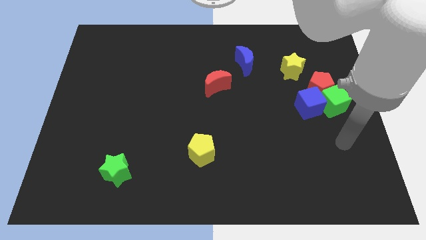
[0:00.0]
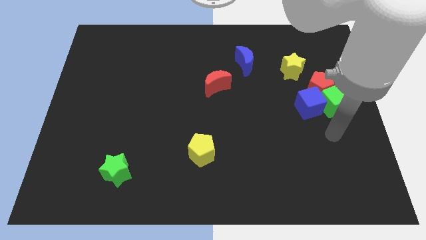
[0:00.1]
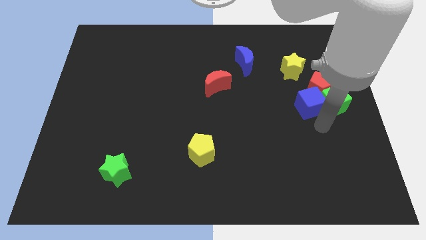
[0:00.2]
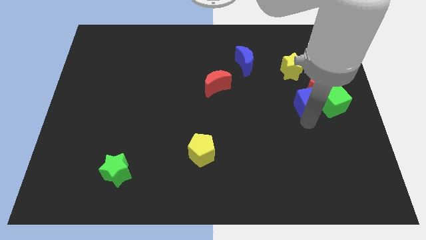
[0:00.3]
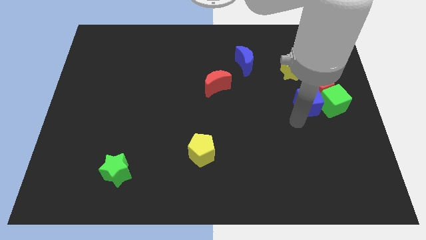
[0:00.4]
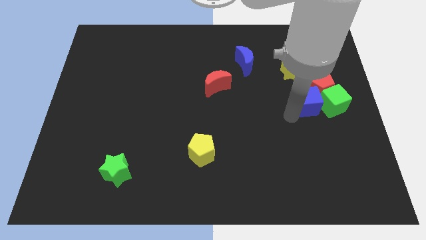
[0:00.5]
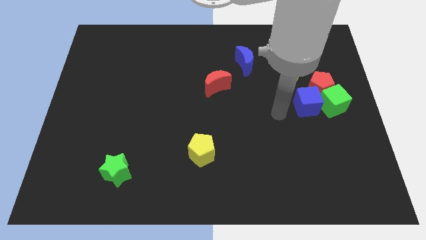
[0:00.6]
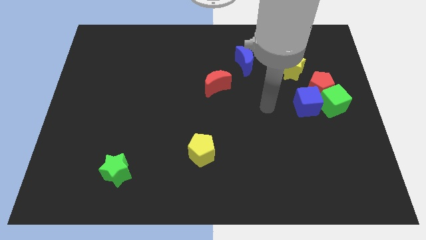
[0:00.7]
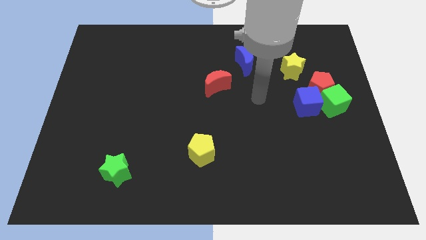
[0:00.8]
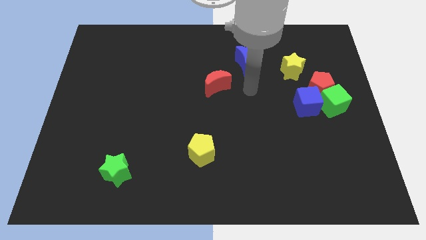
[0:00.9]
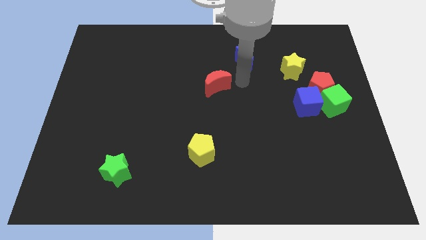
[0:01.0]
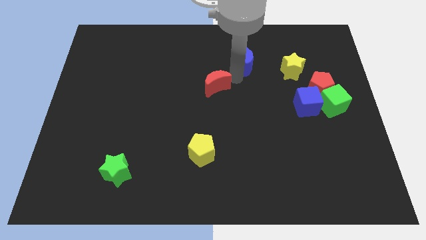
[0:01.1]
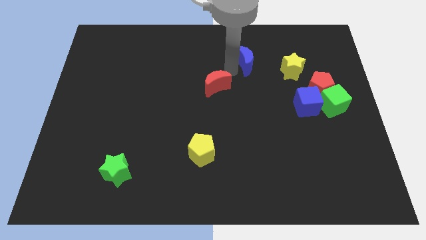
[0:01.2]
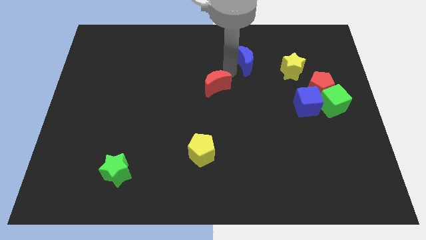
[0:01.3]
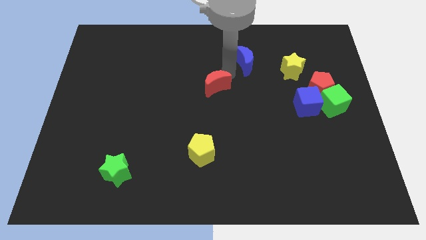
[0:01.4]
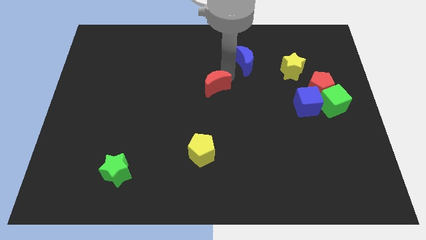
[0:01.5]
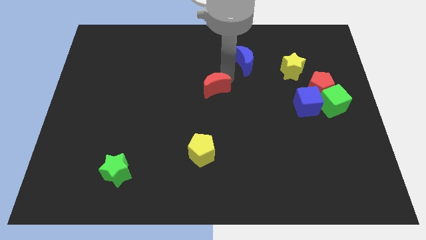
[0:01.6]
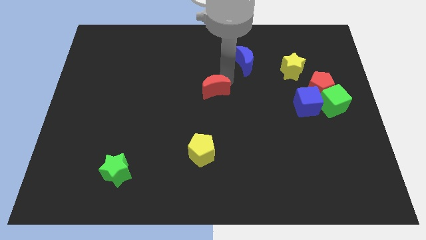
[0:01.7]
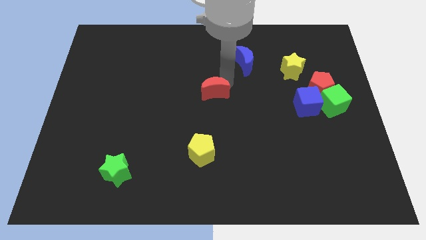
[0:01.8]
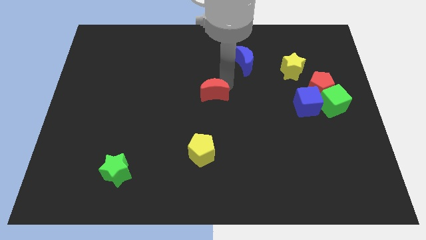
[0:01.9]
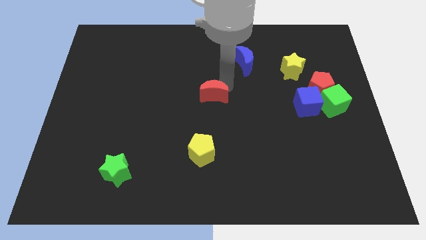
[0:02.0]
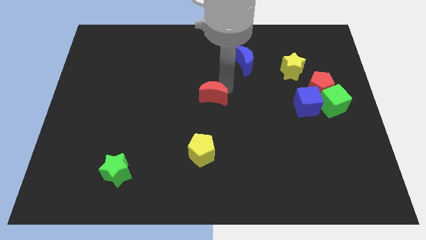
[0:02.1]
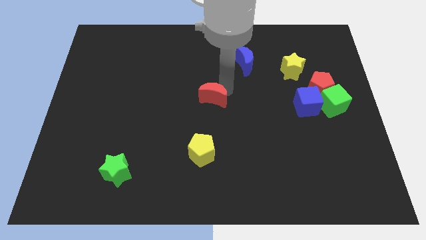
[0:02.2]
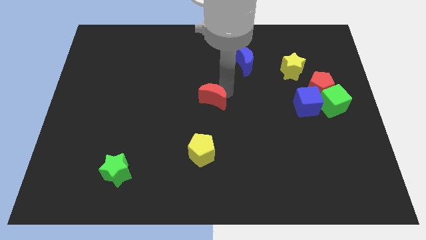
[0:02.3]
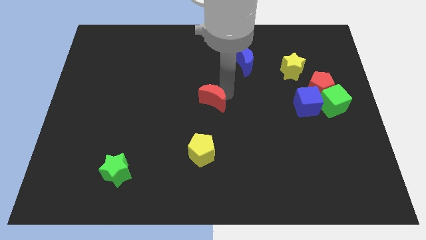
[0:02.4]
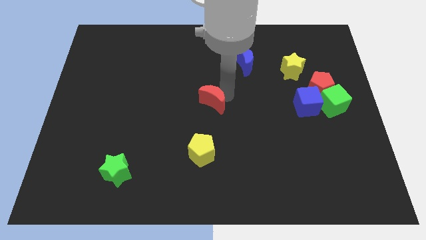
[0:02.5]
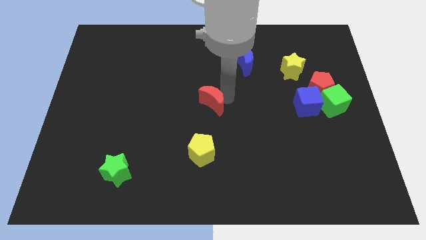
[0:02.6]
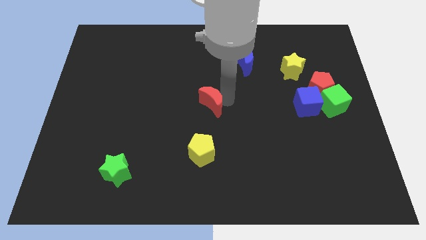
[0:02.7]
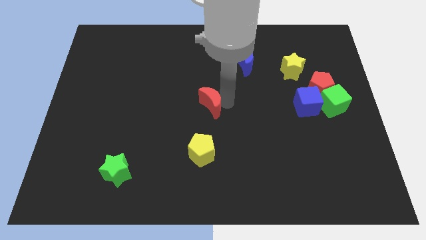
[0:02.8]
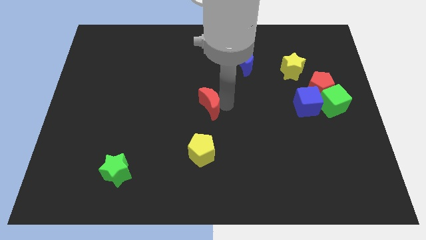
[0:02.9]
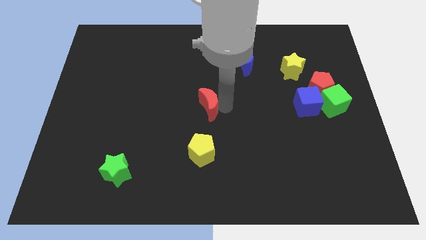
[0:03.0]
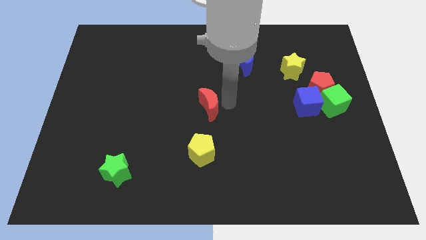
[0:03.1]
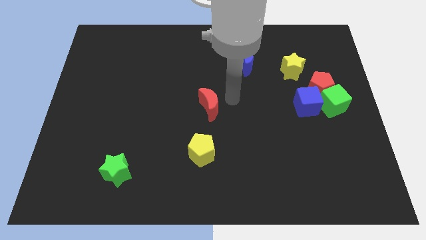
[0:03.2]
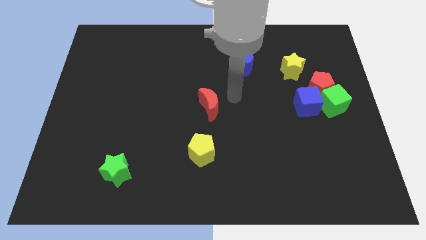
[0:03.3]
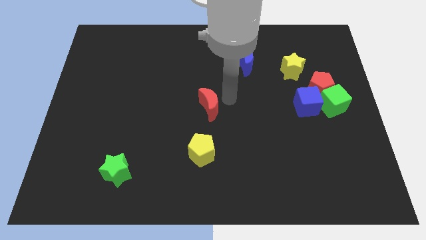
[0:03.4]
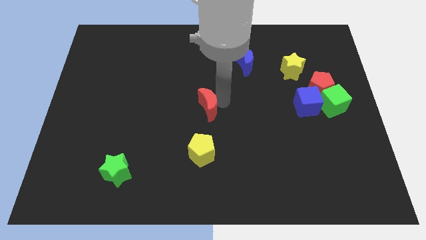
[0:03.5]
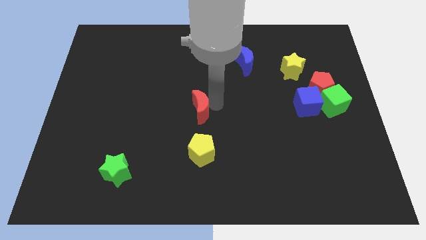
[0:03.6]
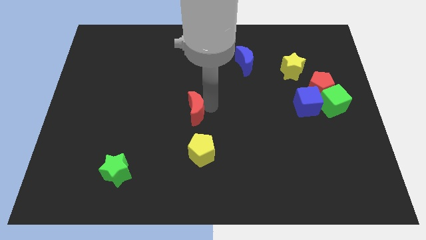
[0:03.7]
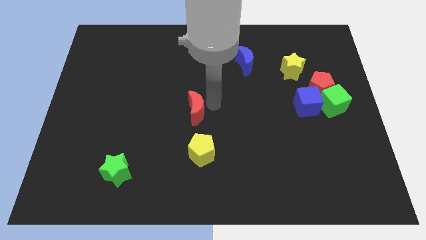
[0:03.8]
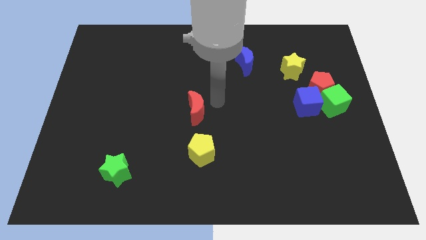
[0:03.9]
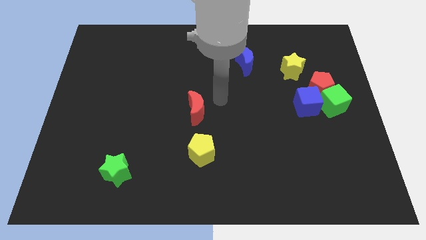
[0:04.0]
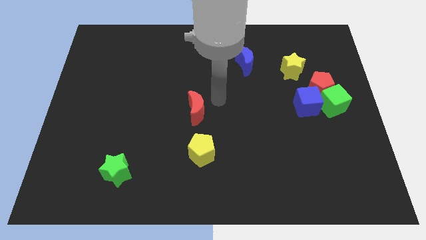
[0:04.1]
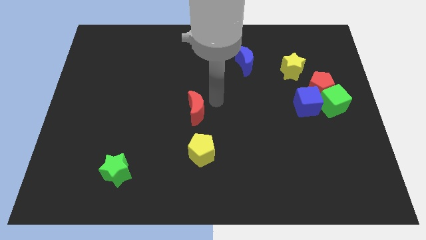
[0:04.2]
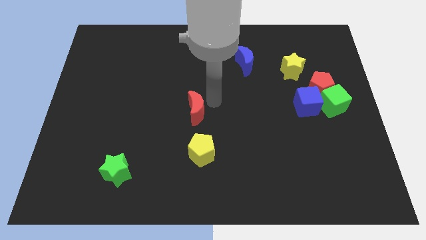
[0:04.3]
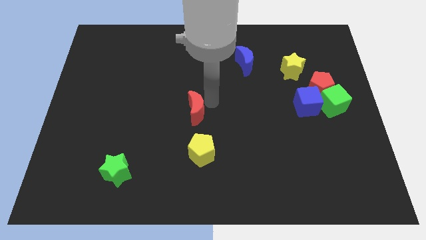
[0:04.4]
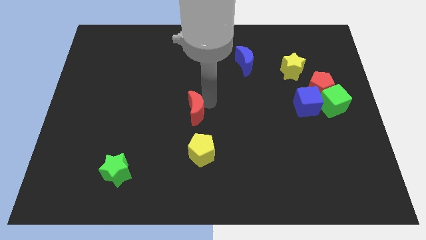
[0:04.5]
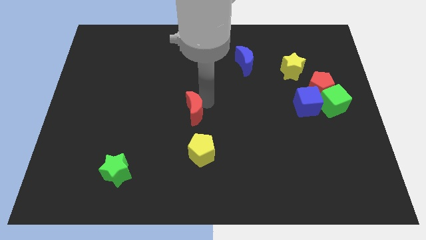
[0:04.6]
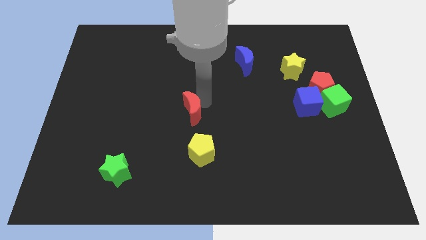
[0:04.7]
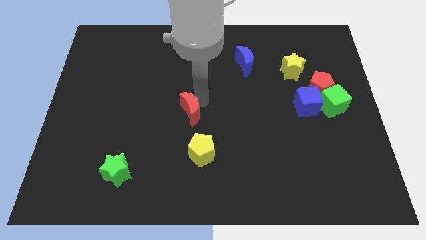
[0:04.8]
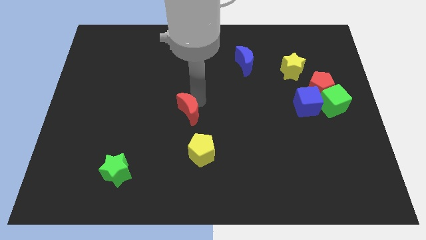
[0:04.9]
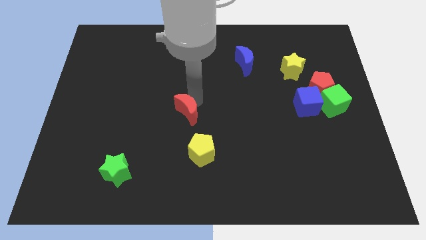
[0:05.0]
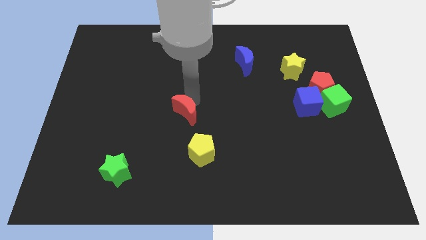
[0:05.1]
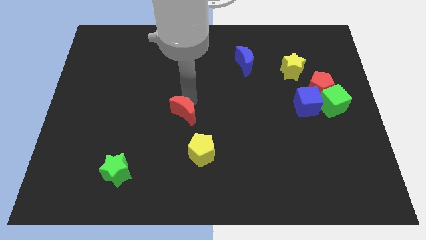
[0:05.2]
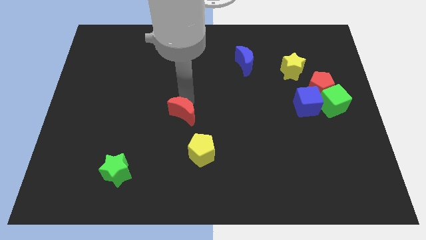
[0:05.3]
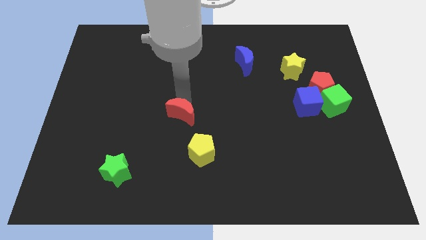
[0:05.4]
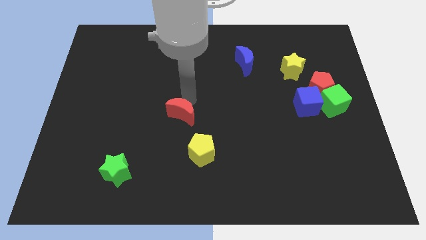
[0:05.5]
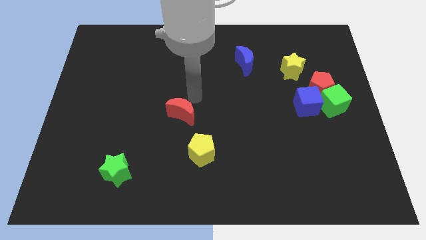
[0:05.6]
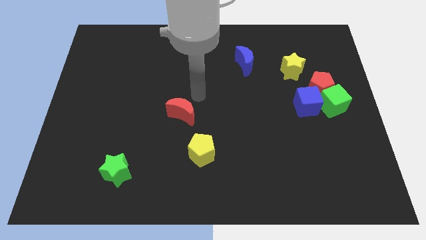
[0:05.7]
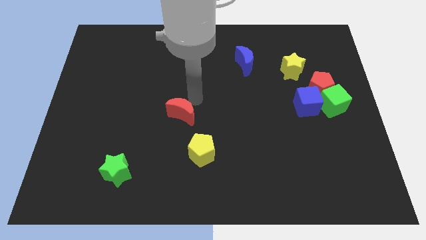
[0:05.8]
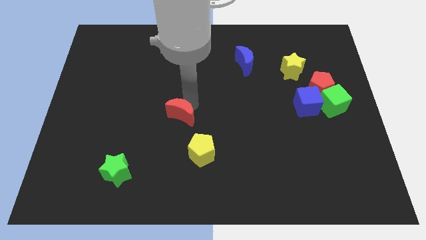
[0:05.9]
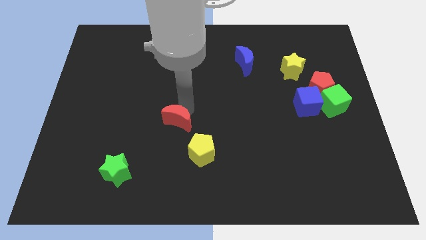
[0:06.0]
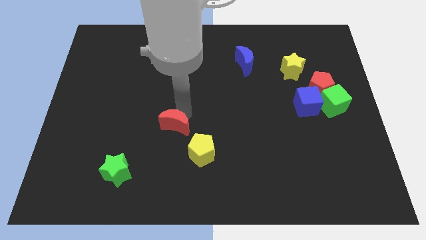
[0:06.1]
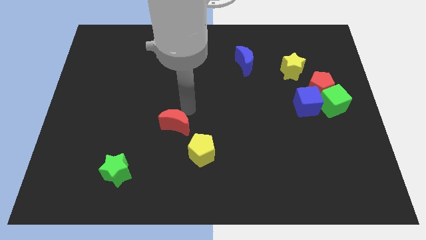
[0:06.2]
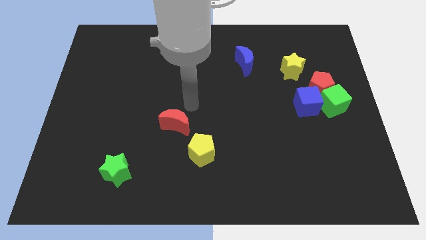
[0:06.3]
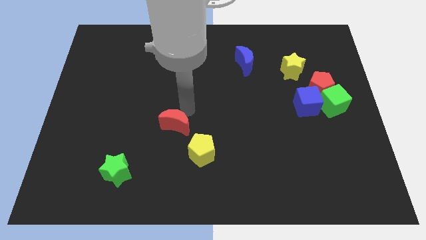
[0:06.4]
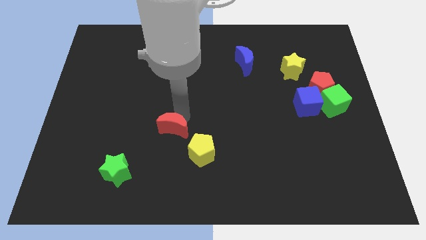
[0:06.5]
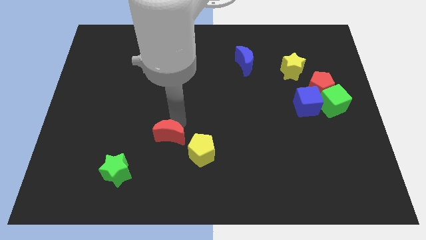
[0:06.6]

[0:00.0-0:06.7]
push the red moon just left of the yellow pentagon

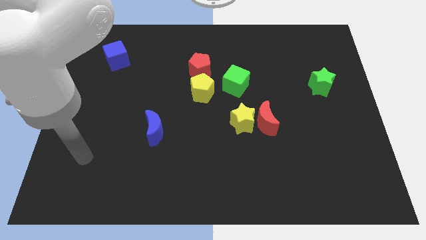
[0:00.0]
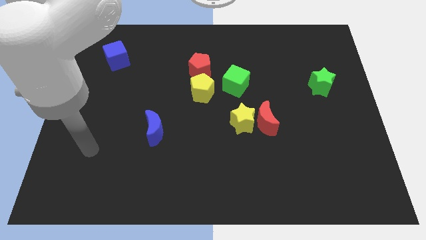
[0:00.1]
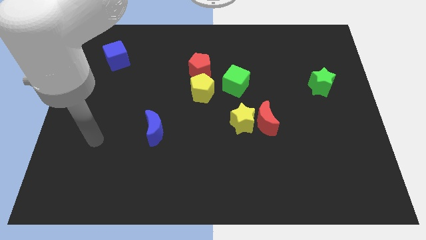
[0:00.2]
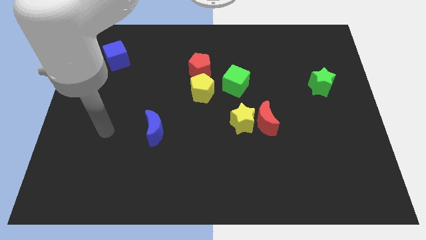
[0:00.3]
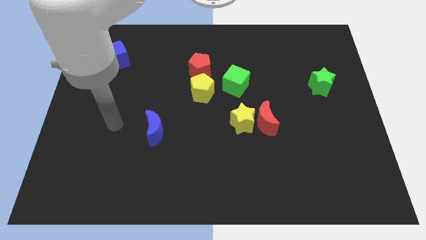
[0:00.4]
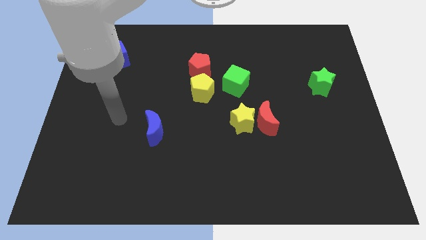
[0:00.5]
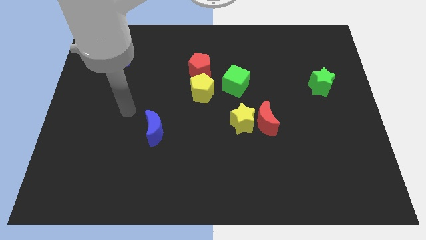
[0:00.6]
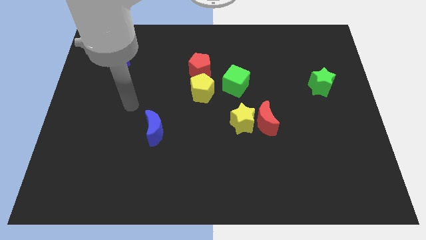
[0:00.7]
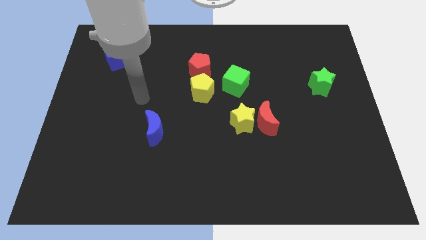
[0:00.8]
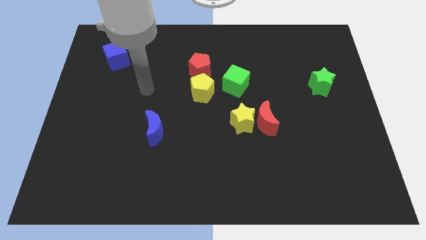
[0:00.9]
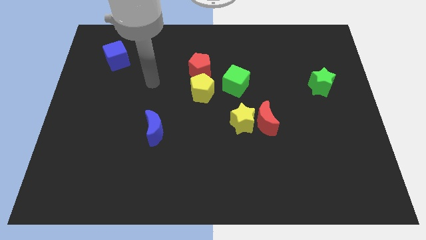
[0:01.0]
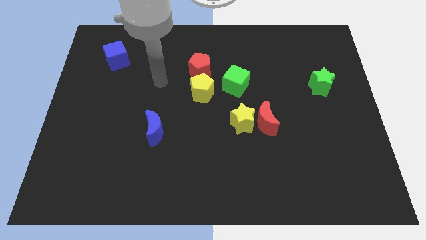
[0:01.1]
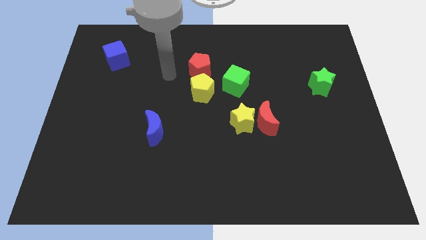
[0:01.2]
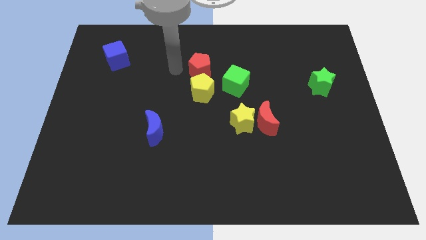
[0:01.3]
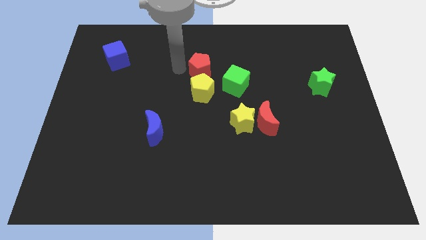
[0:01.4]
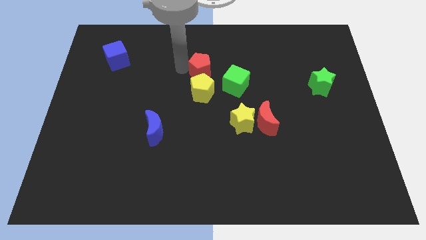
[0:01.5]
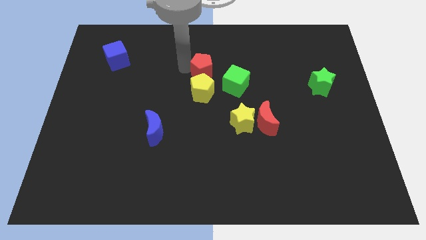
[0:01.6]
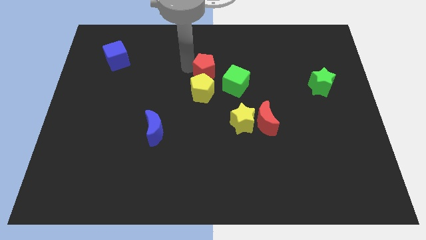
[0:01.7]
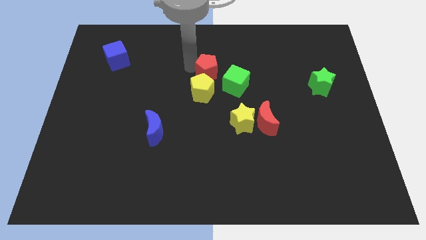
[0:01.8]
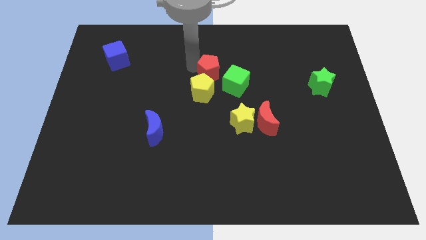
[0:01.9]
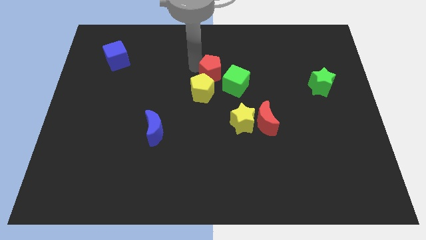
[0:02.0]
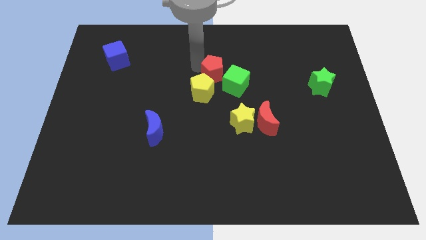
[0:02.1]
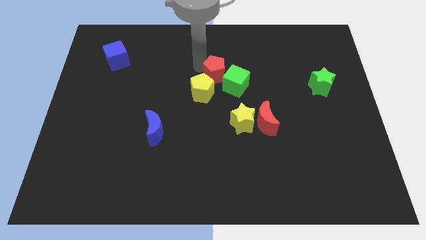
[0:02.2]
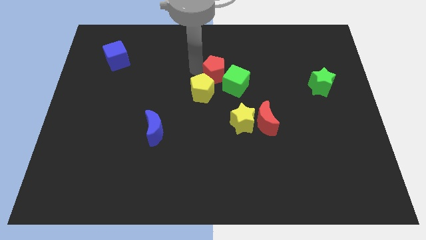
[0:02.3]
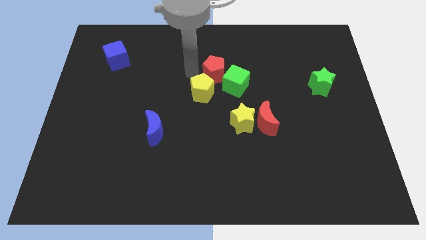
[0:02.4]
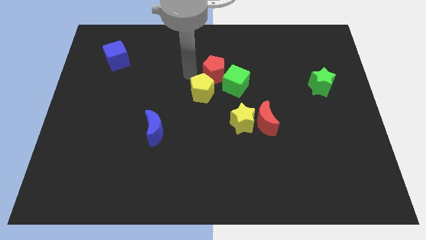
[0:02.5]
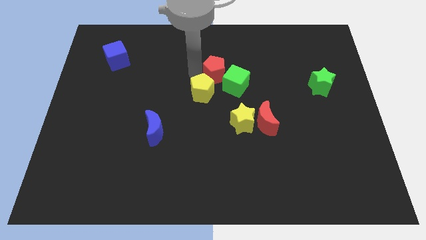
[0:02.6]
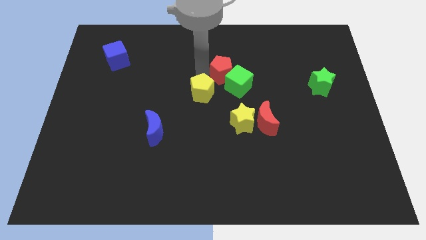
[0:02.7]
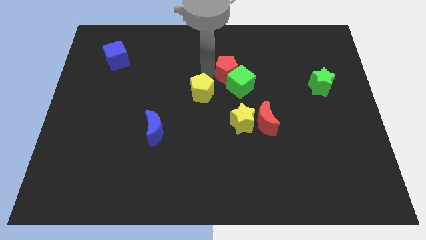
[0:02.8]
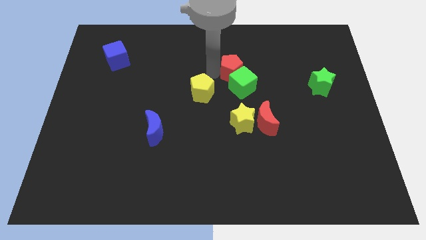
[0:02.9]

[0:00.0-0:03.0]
push the red pentagon to the top of the yellow star
